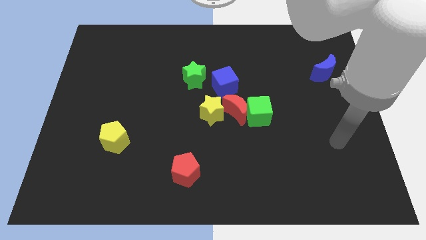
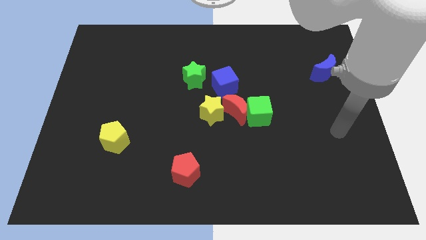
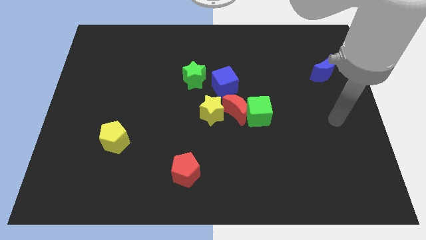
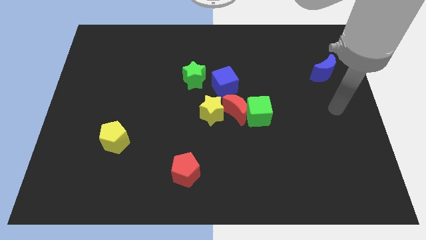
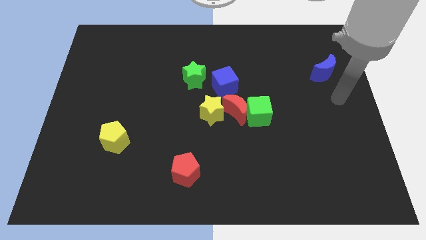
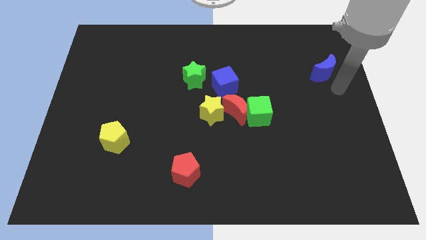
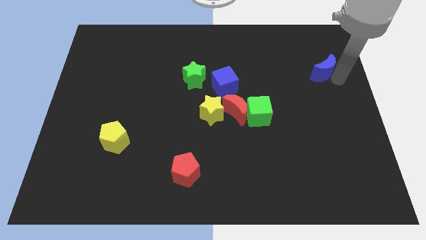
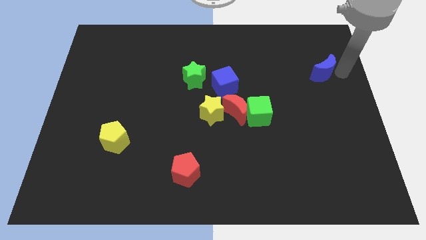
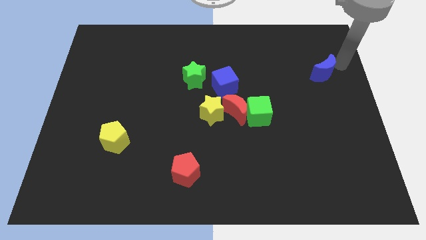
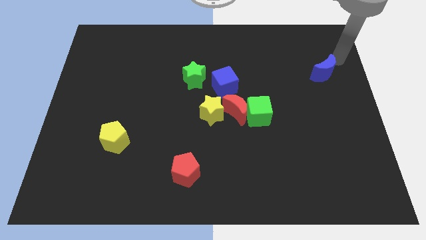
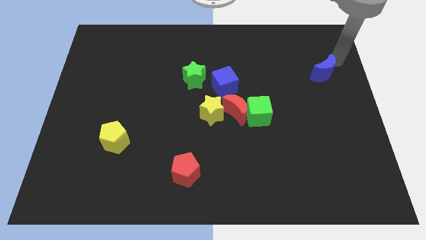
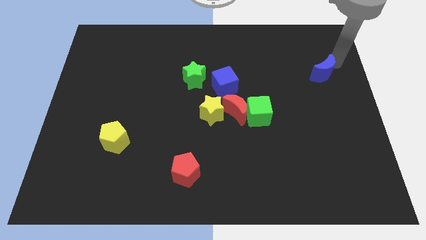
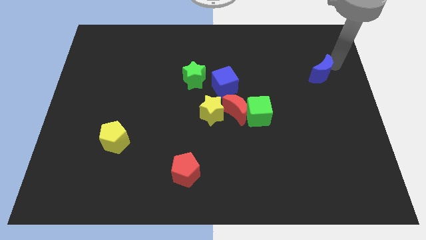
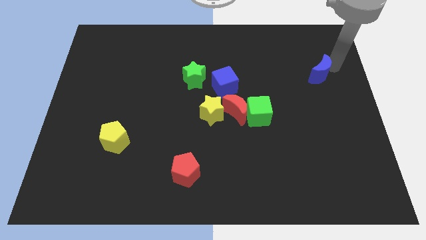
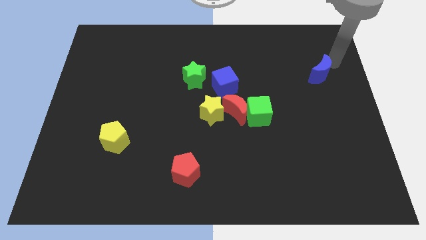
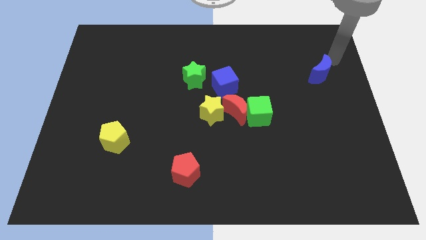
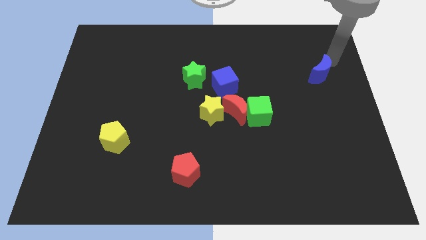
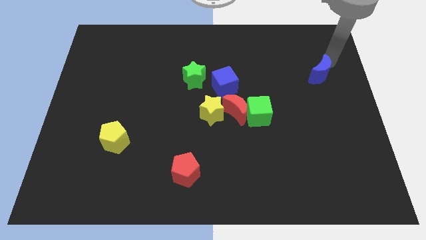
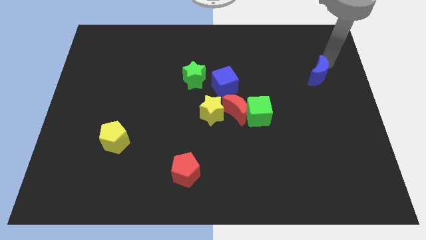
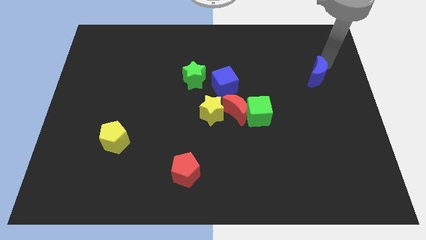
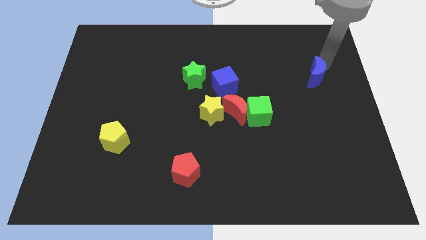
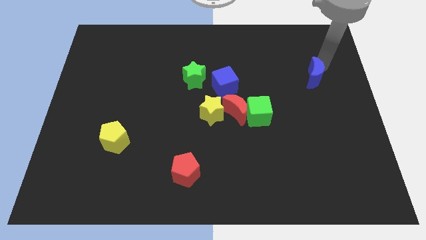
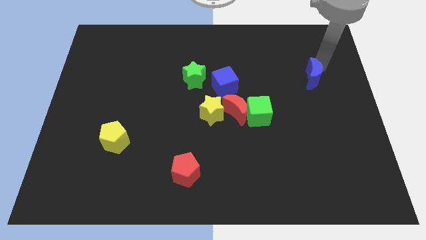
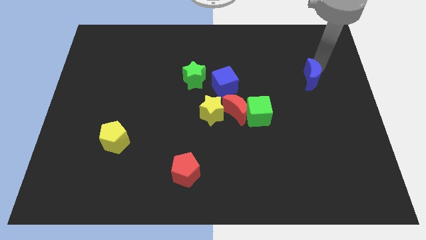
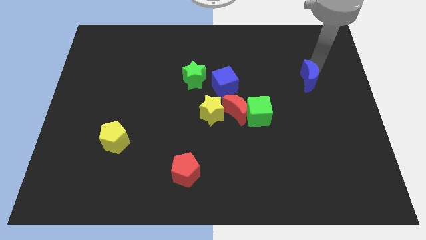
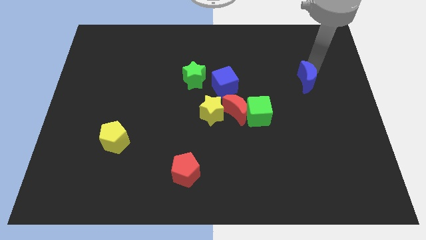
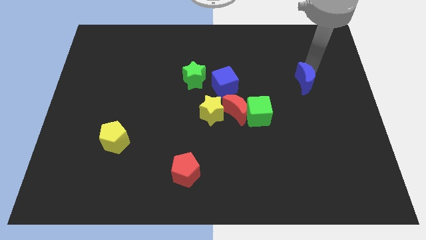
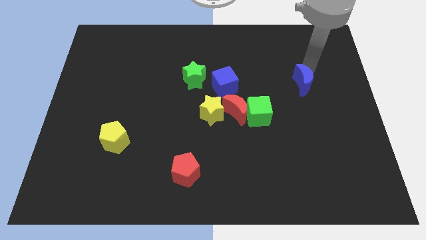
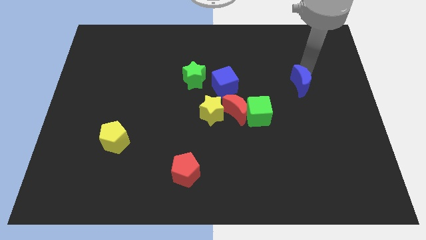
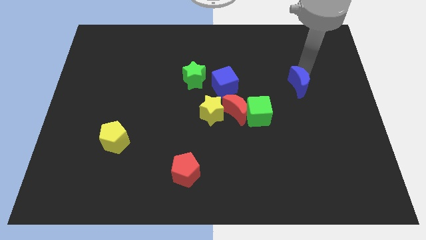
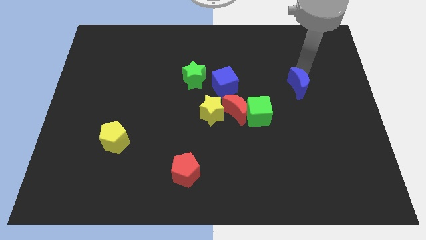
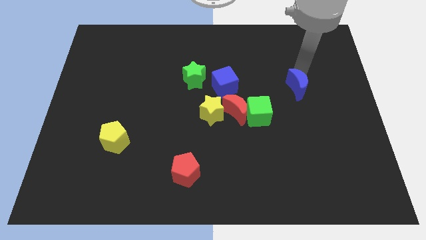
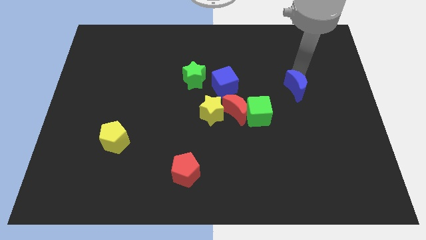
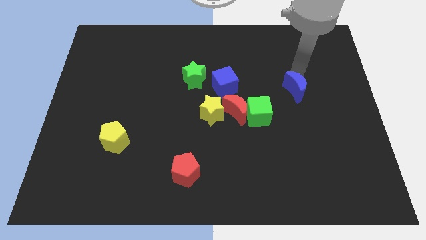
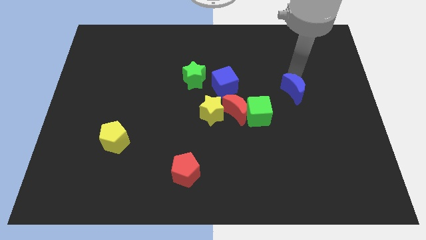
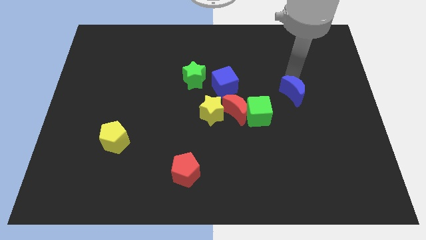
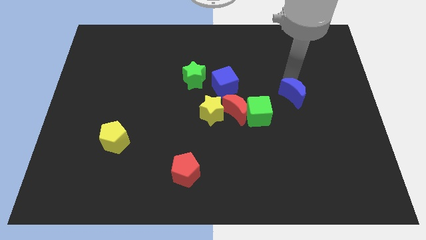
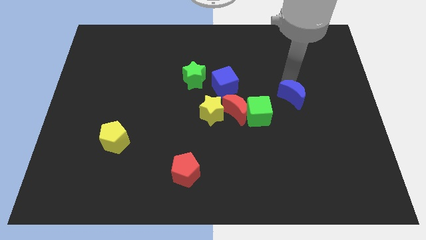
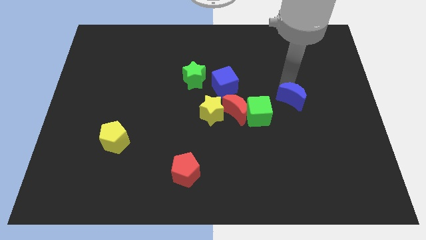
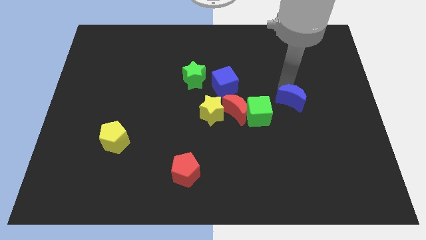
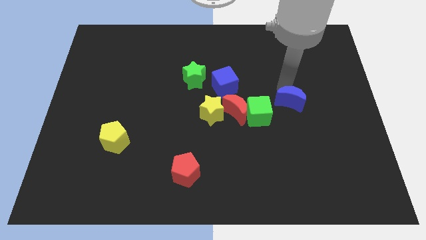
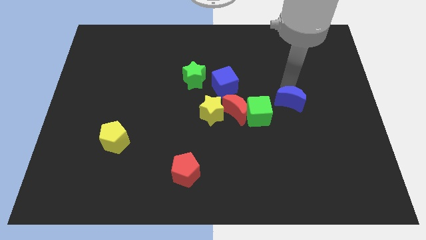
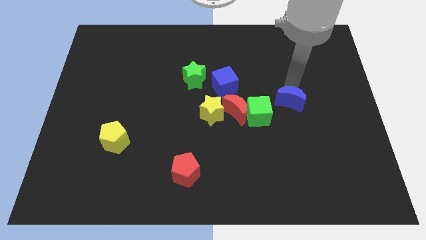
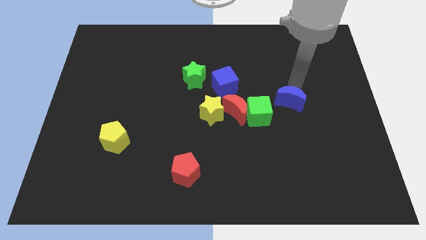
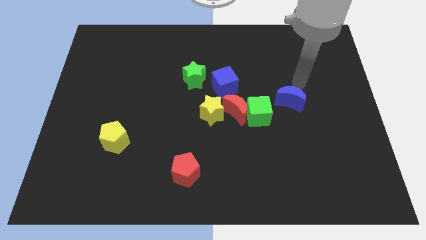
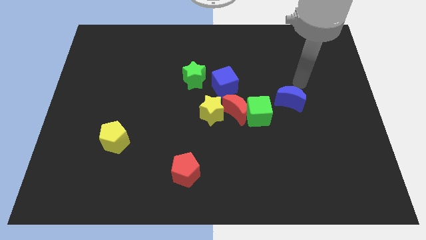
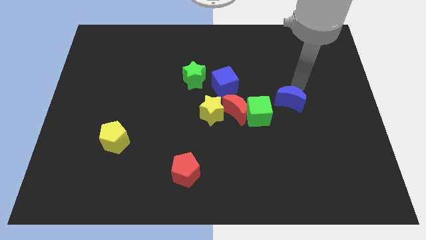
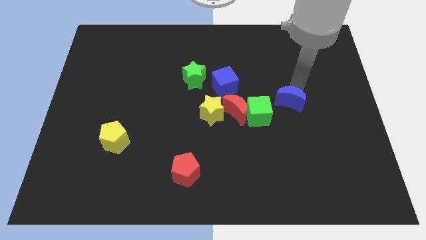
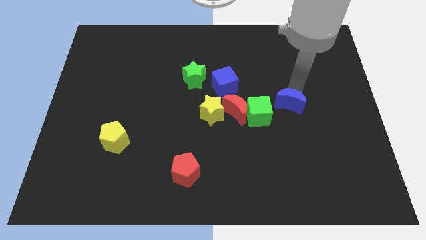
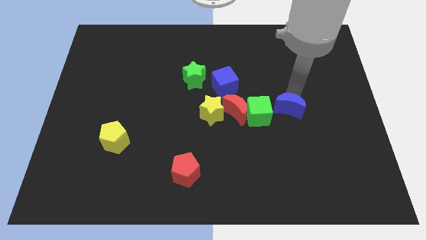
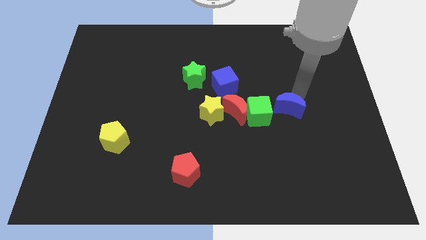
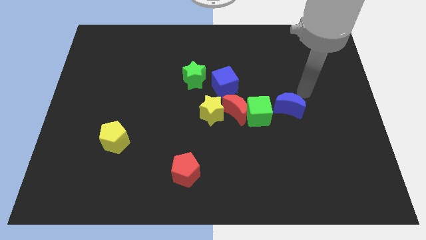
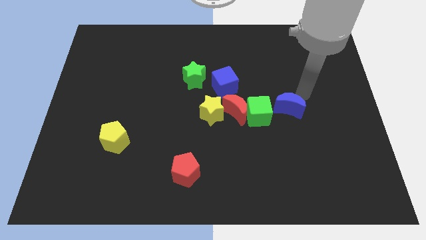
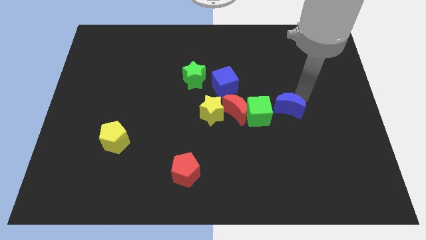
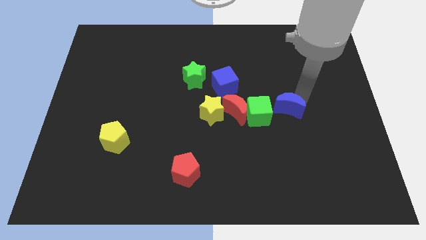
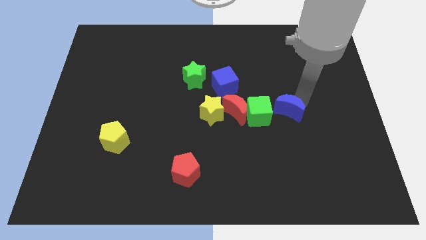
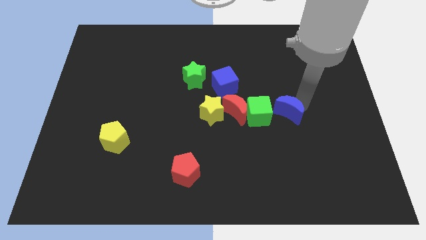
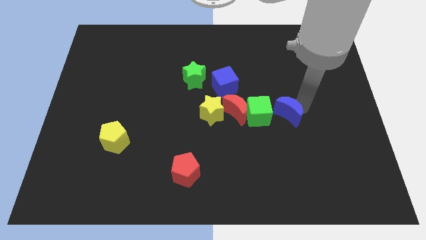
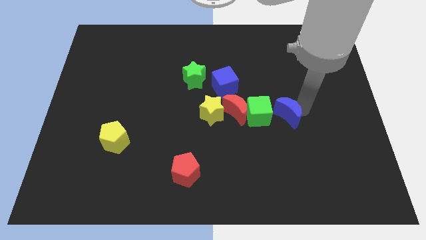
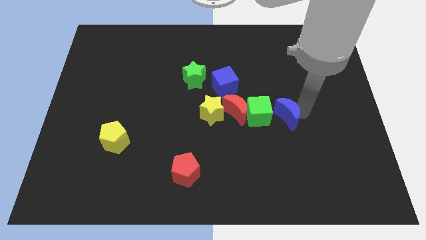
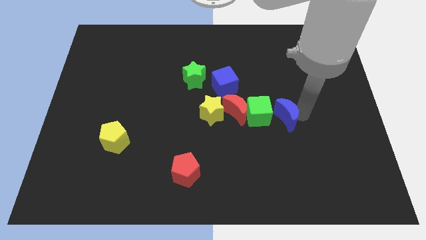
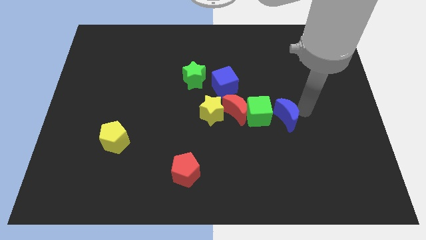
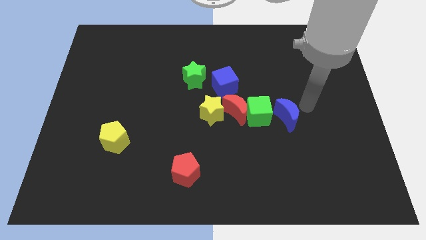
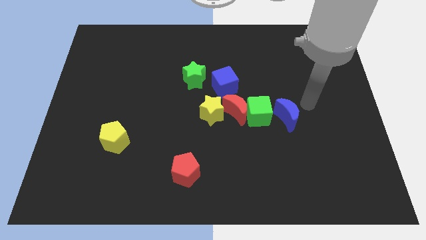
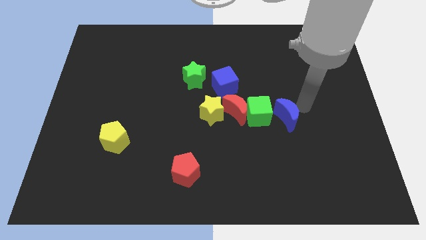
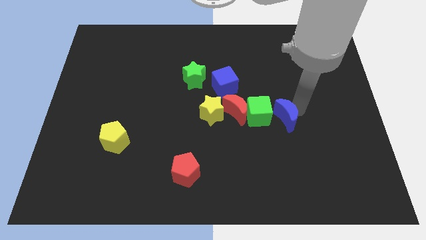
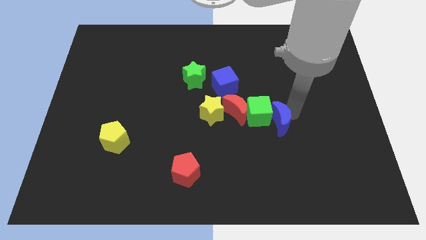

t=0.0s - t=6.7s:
slide the blue moon diagonally down and left

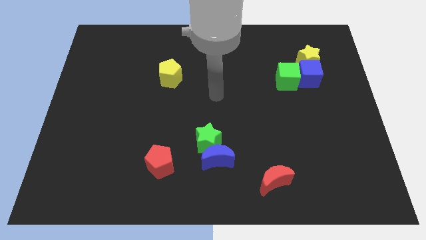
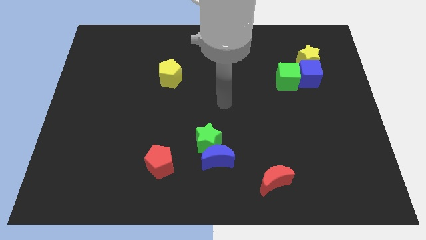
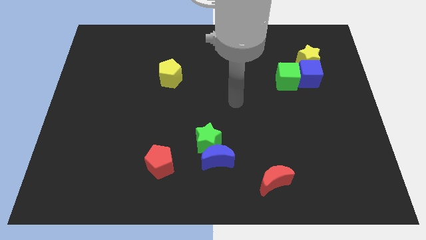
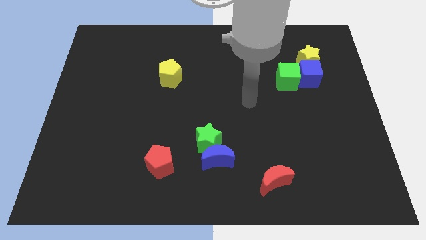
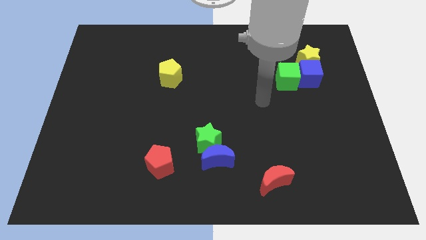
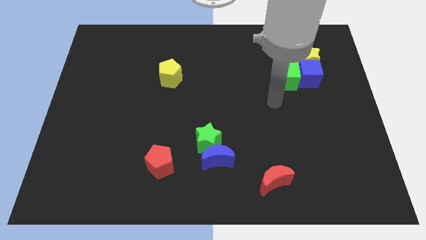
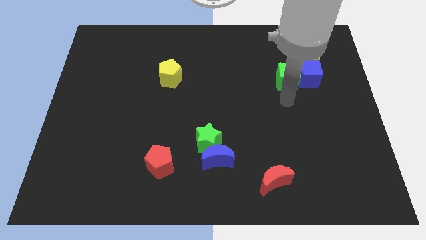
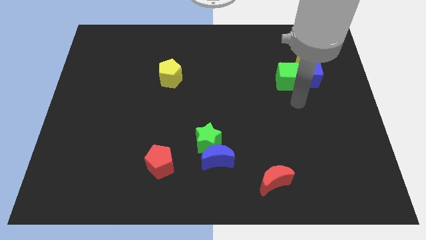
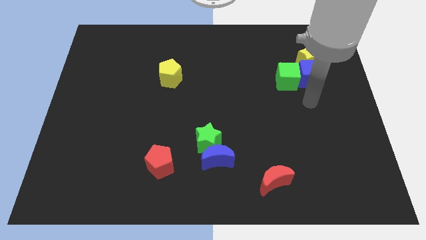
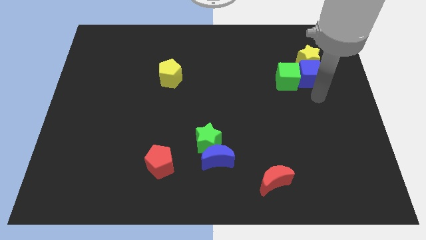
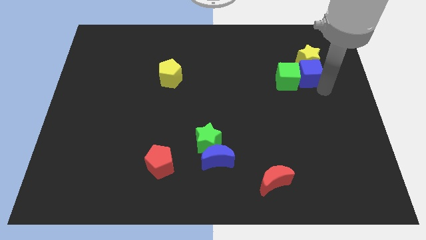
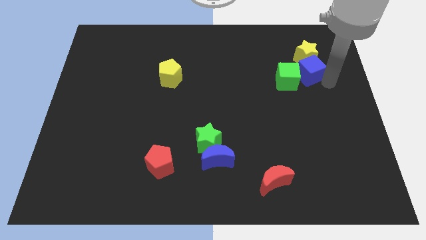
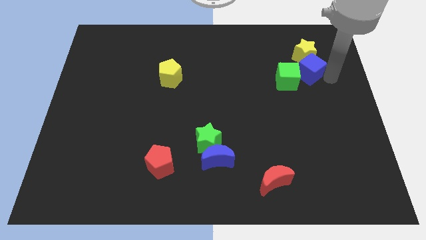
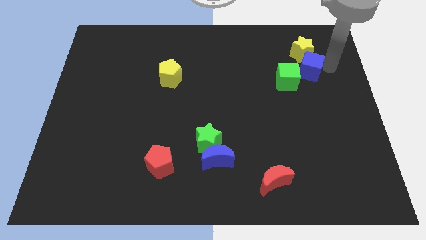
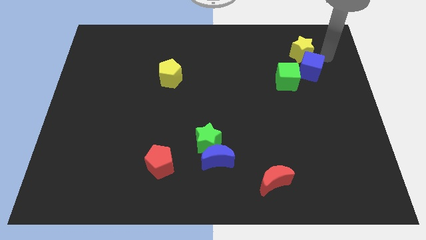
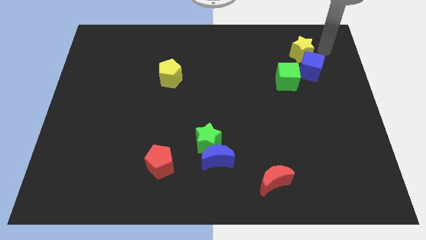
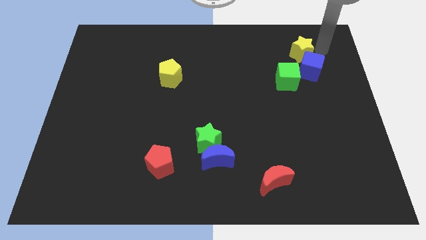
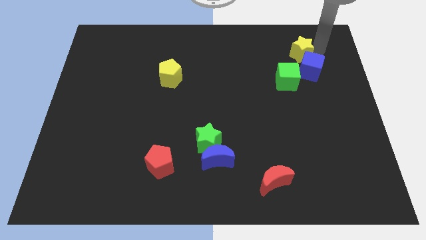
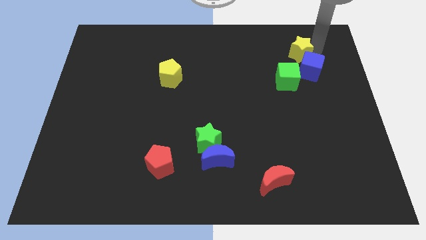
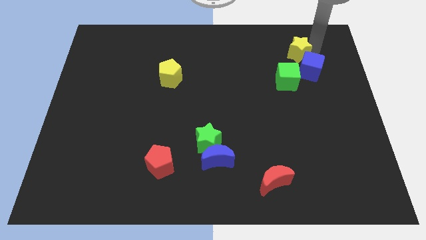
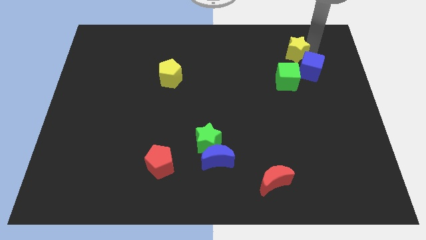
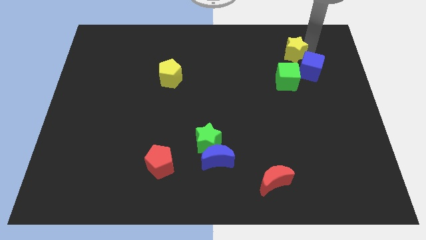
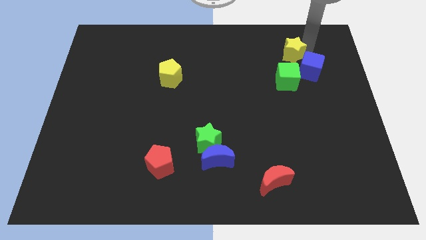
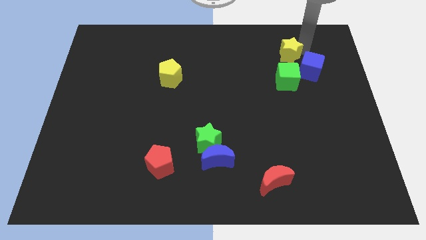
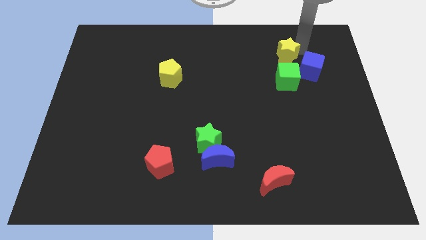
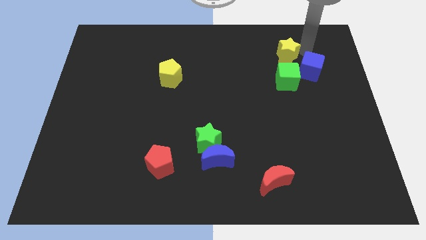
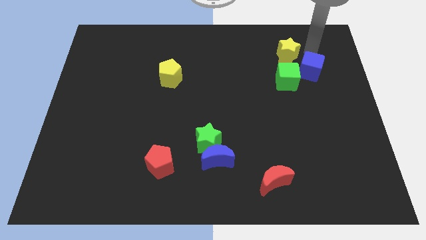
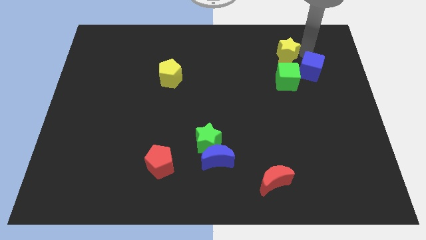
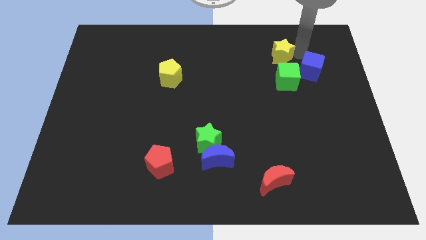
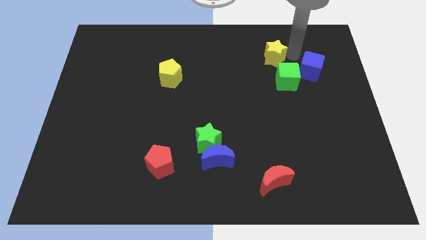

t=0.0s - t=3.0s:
move the yellow star a little to the left
